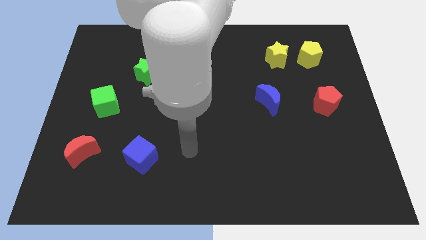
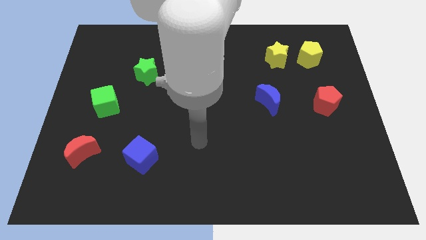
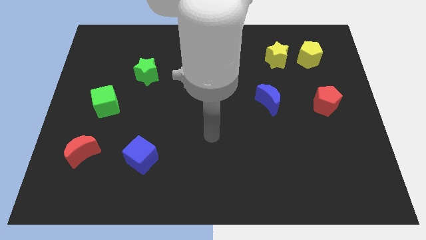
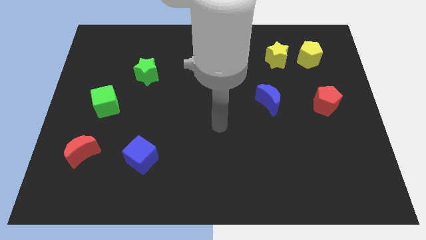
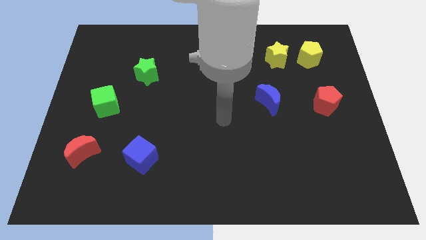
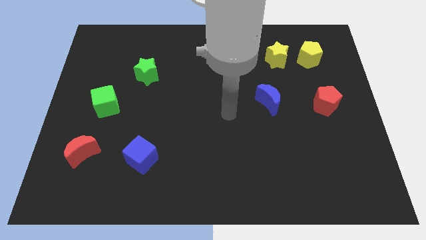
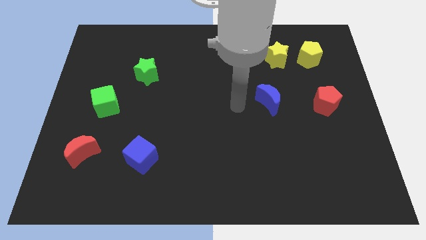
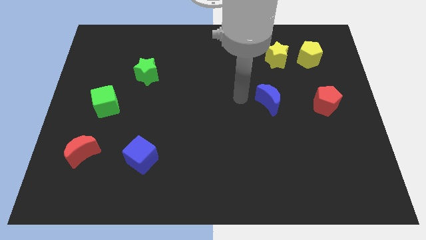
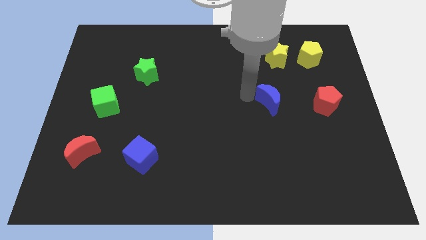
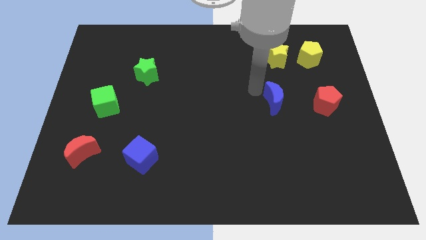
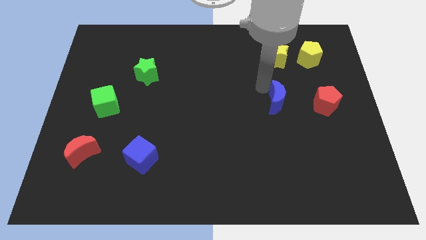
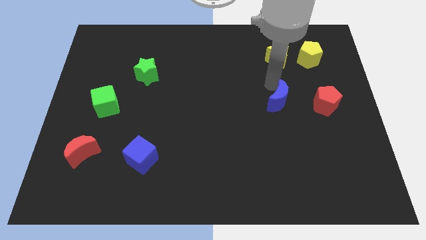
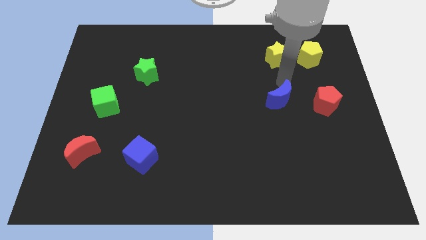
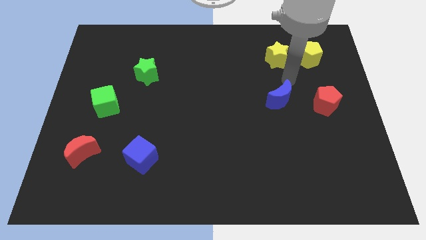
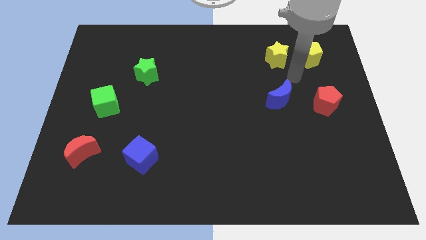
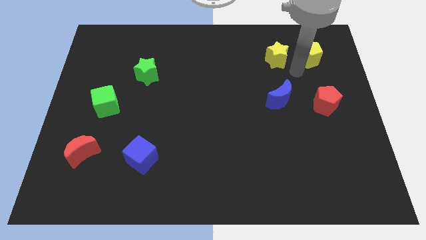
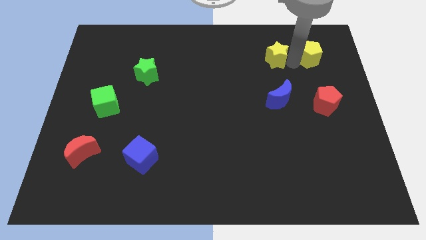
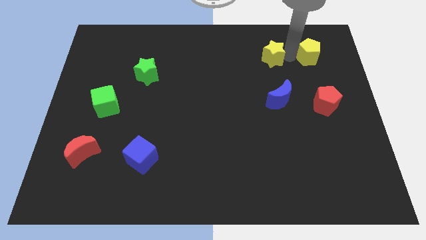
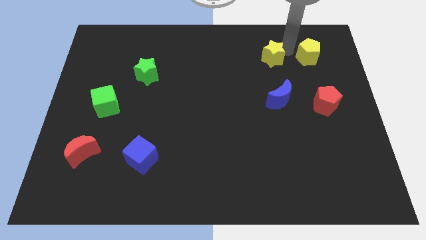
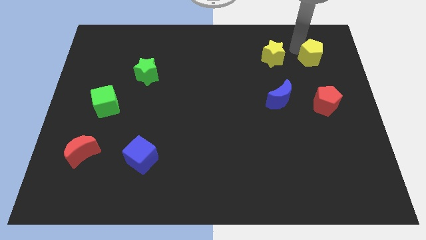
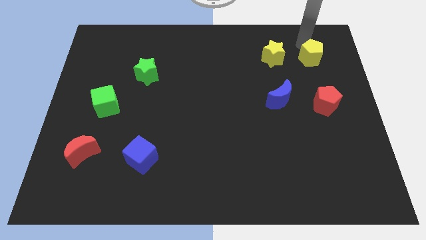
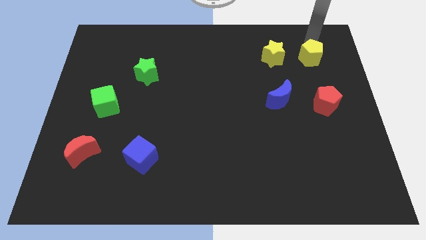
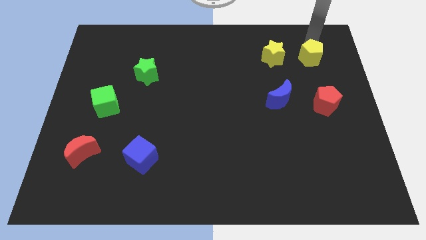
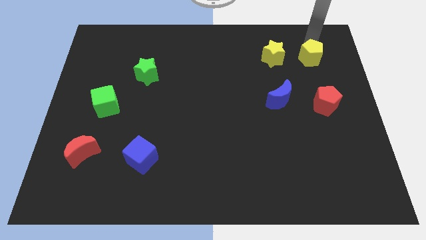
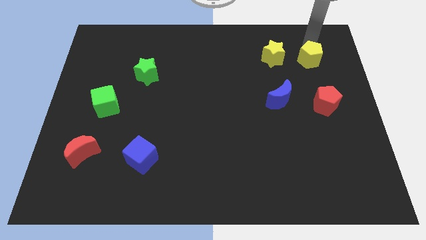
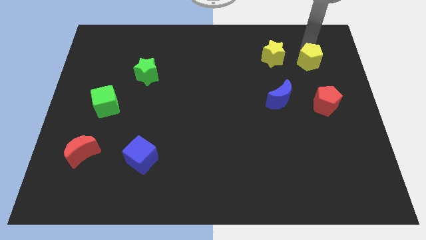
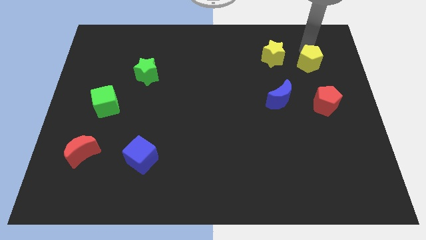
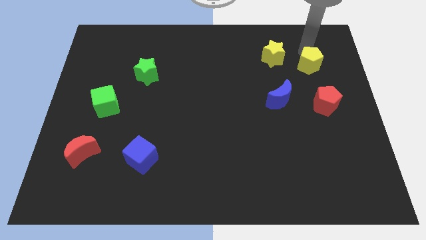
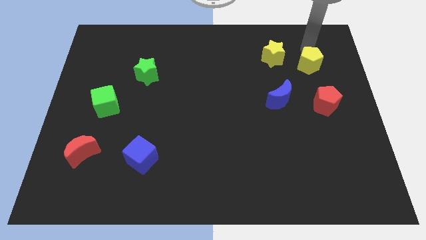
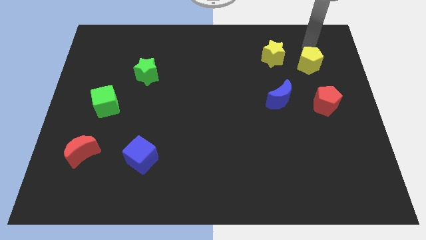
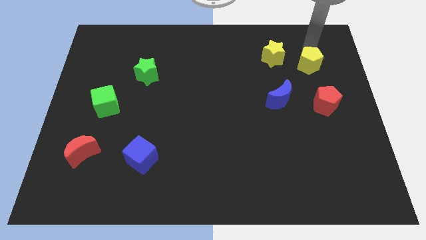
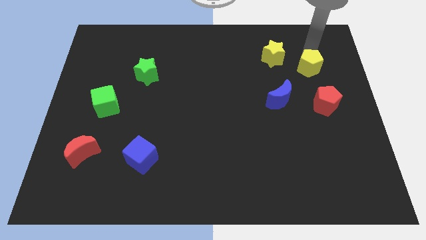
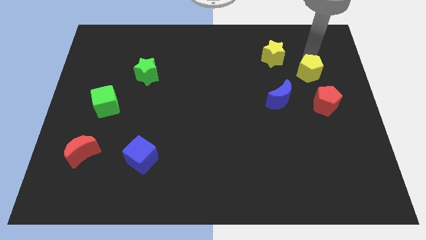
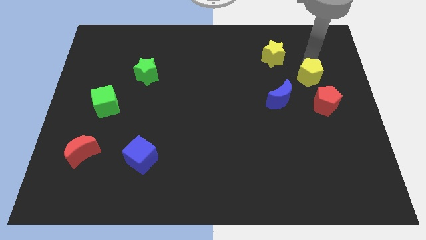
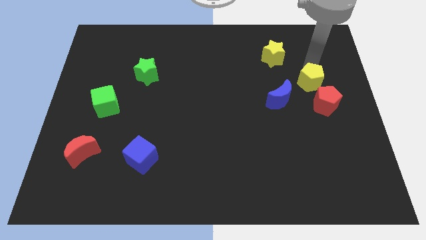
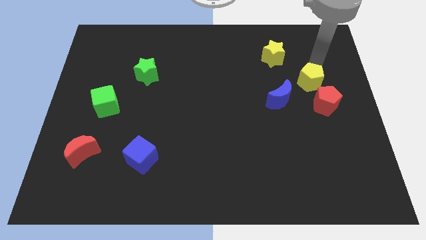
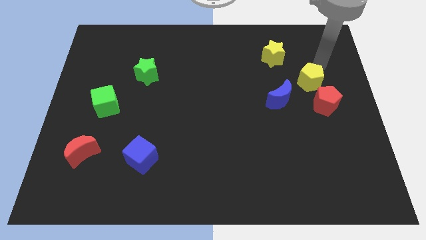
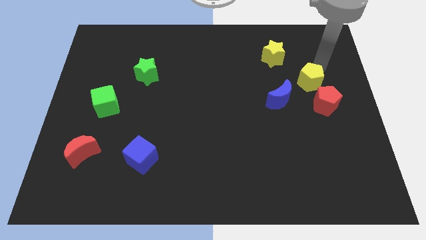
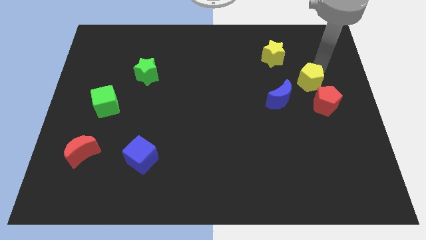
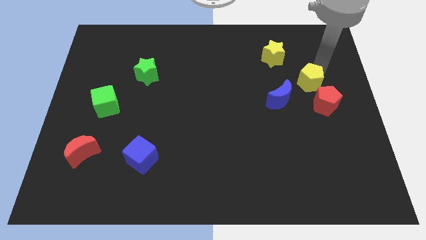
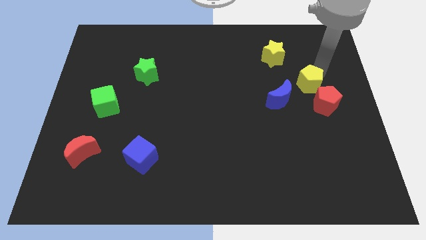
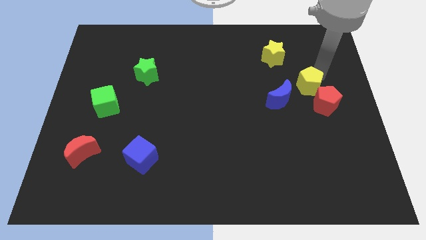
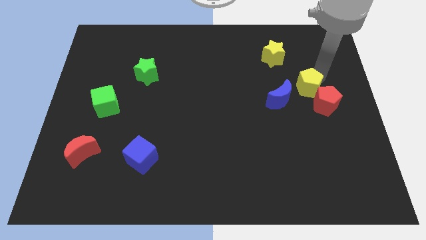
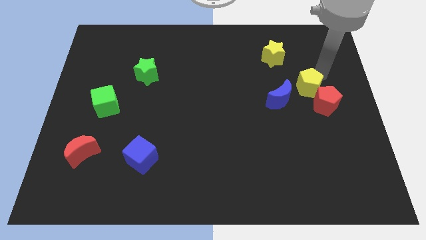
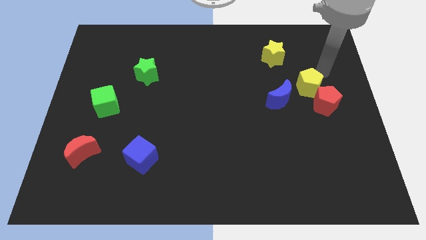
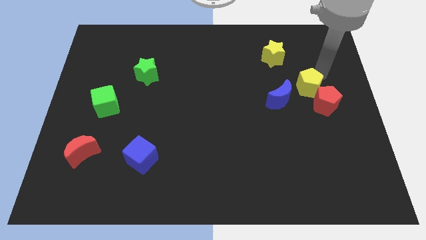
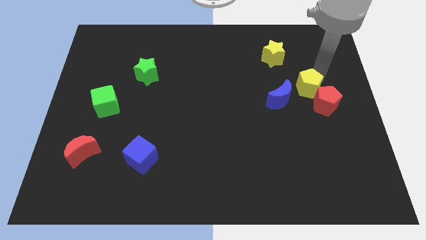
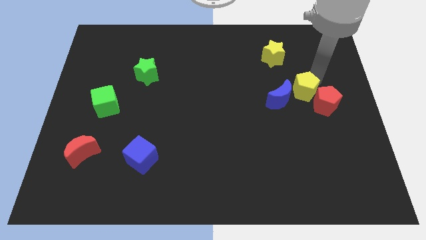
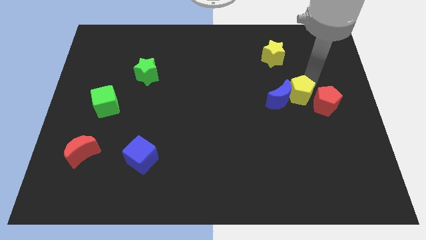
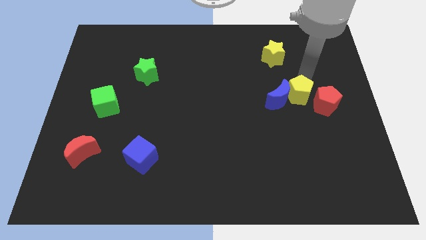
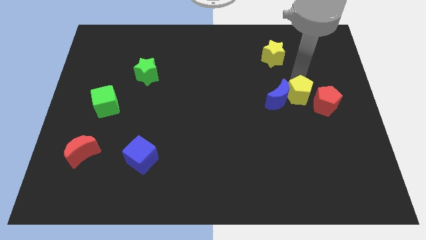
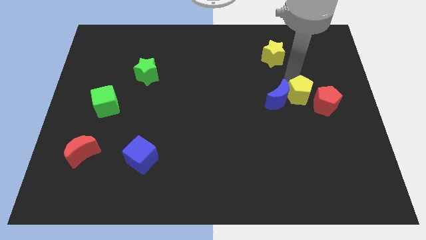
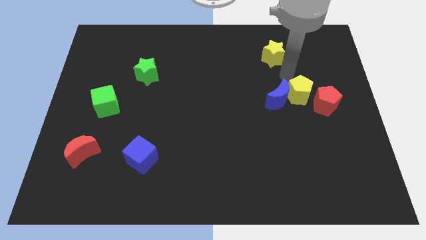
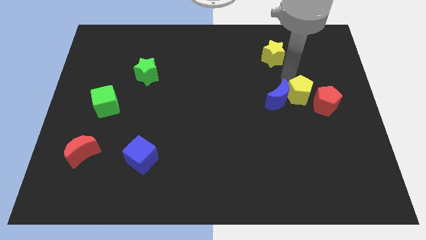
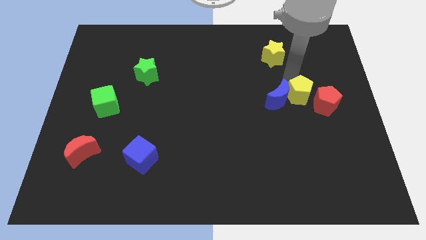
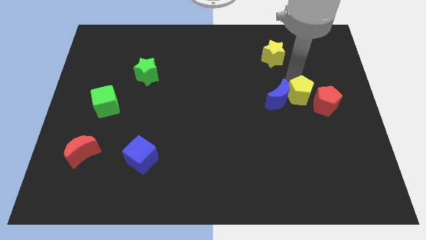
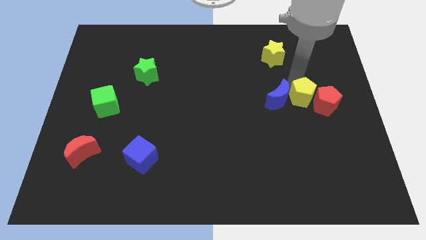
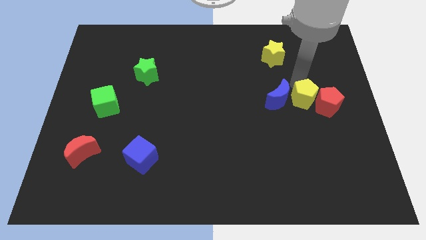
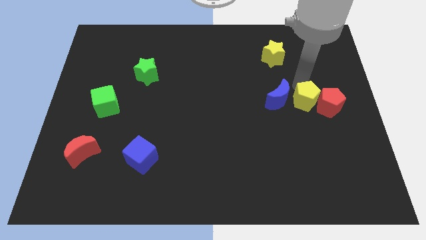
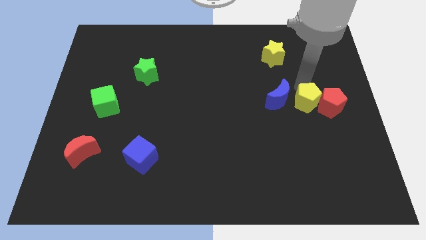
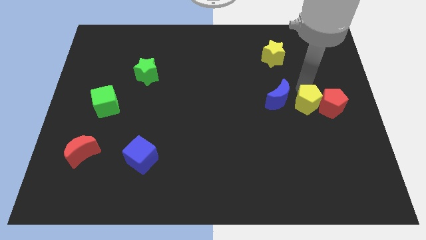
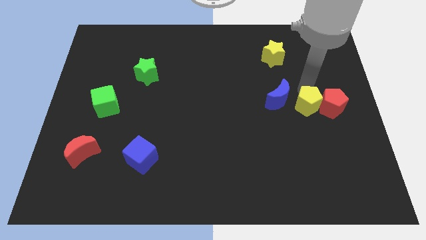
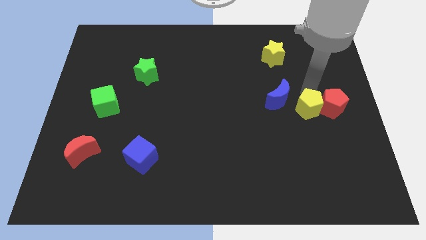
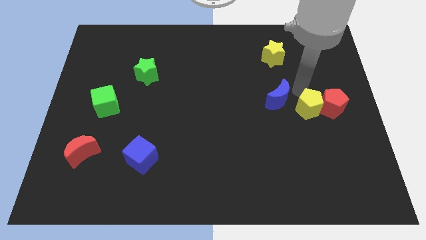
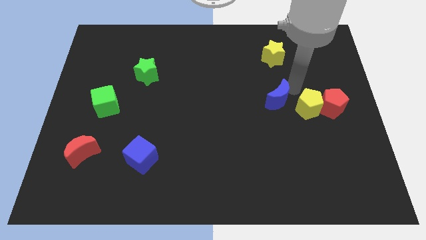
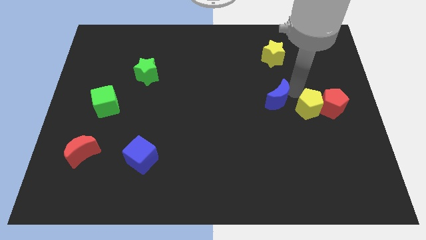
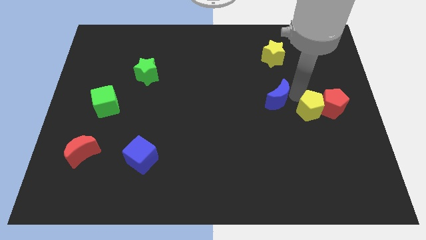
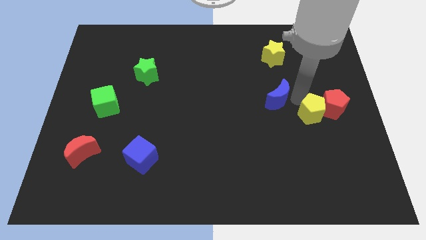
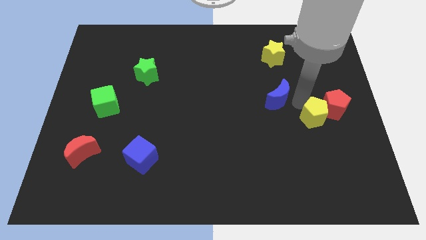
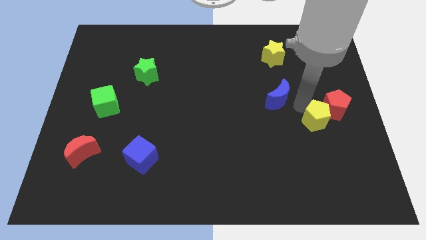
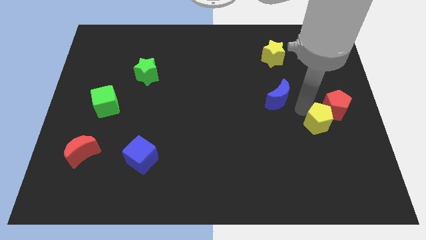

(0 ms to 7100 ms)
slide the yellow pentagon to the bottom side of the red pentagon
